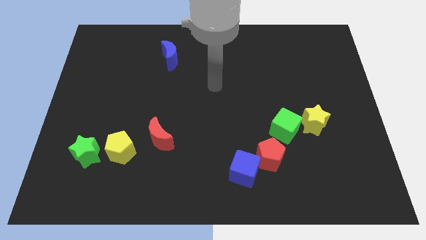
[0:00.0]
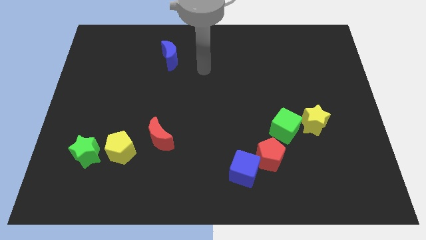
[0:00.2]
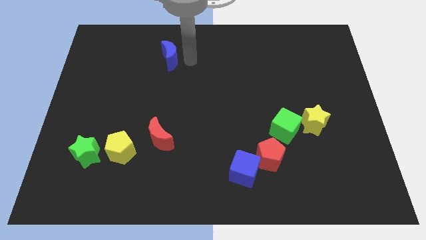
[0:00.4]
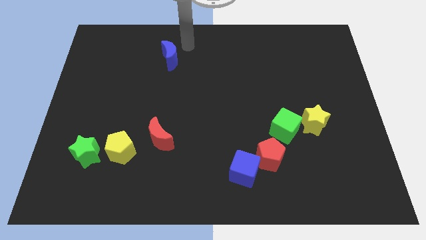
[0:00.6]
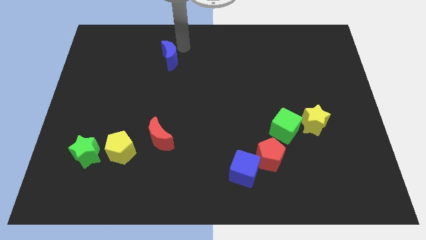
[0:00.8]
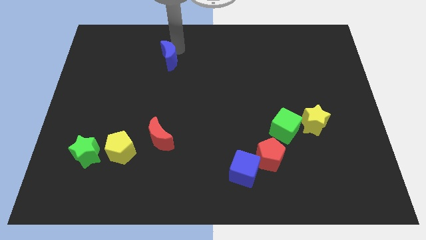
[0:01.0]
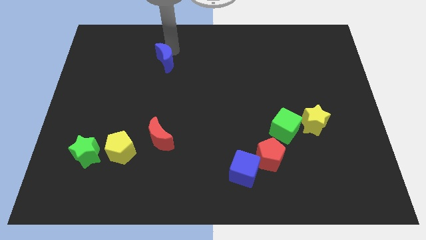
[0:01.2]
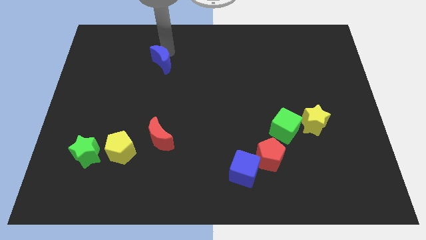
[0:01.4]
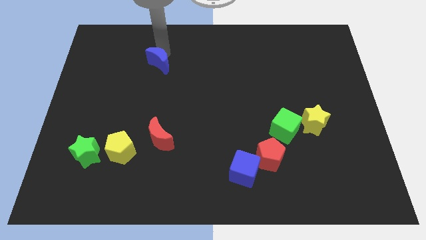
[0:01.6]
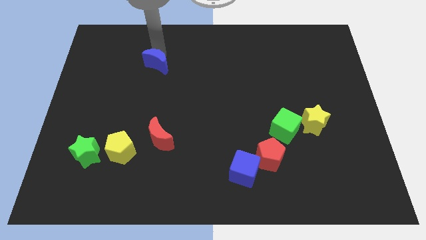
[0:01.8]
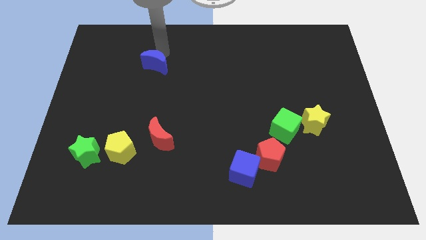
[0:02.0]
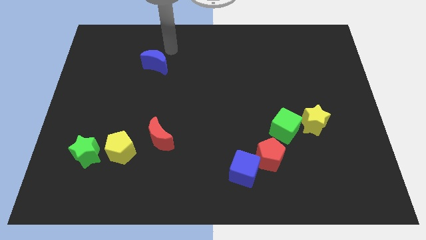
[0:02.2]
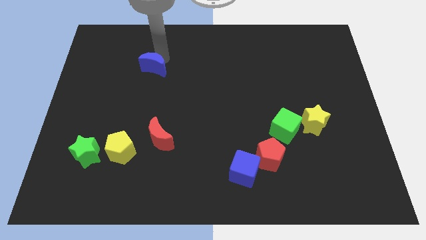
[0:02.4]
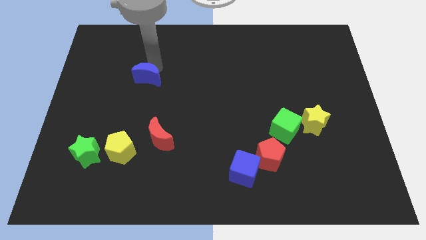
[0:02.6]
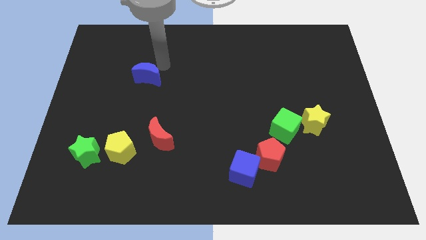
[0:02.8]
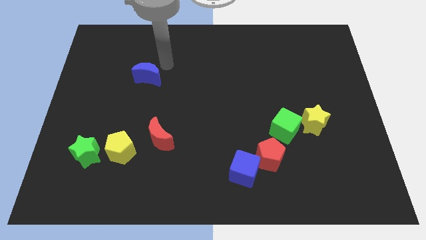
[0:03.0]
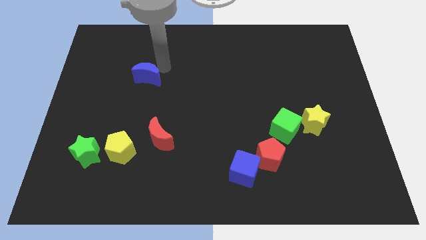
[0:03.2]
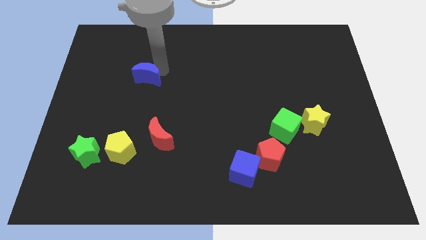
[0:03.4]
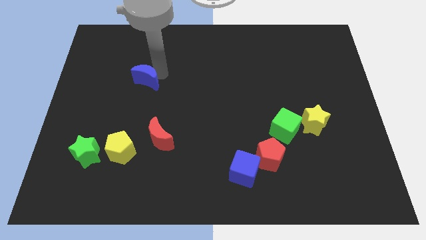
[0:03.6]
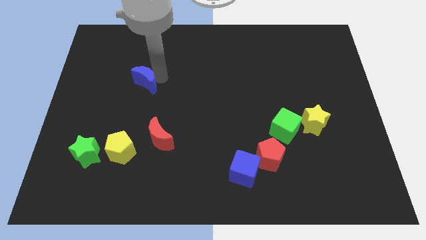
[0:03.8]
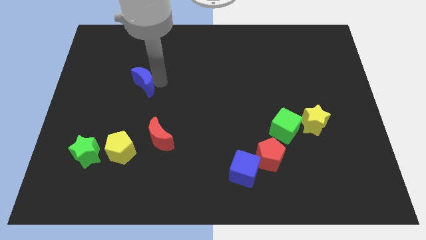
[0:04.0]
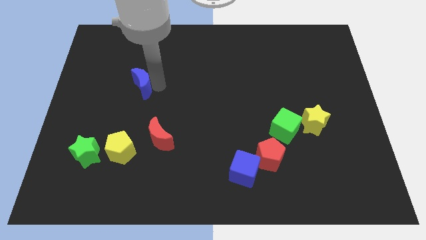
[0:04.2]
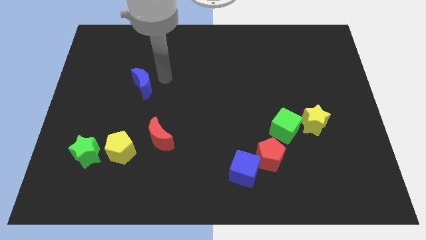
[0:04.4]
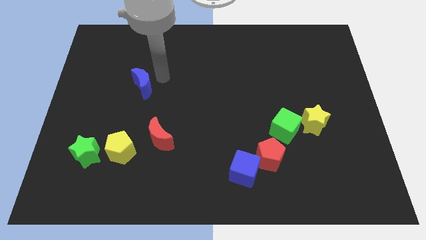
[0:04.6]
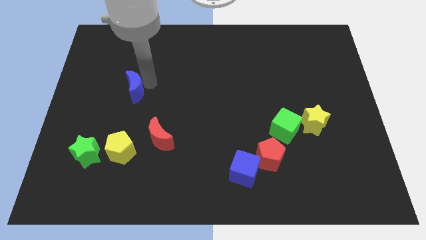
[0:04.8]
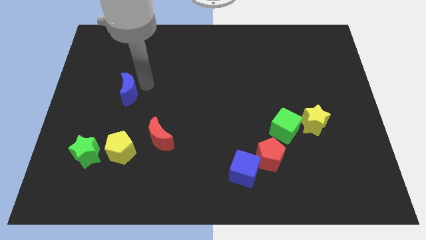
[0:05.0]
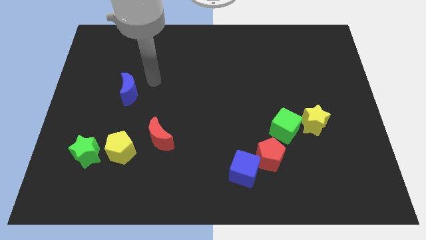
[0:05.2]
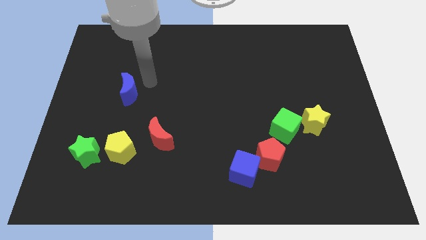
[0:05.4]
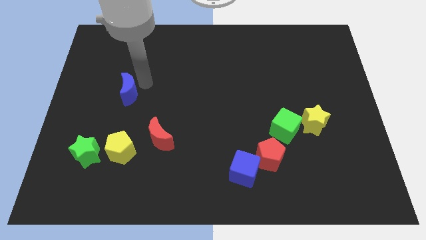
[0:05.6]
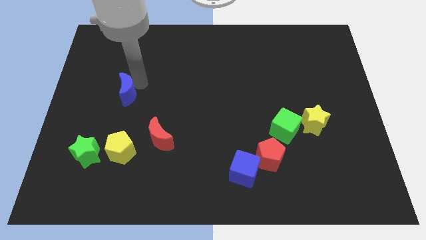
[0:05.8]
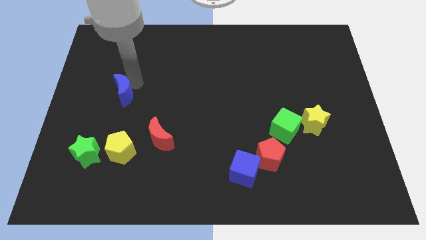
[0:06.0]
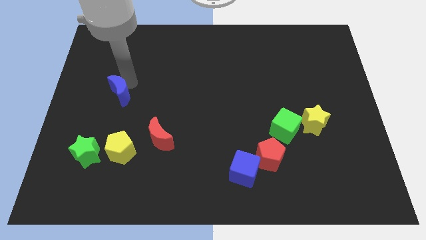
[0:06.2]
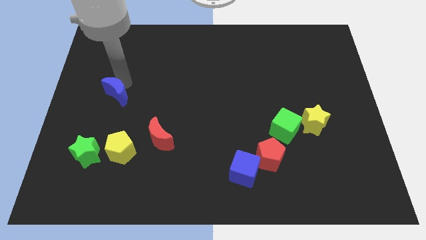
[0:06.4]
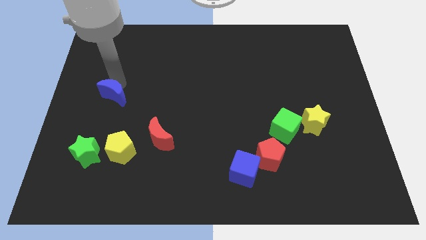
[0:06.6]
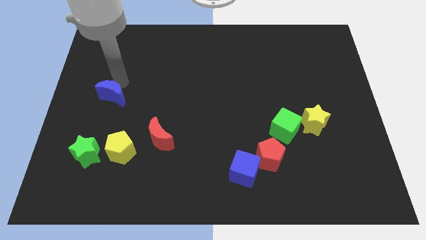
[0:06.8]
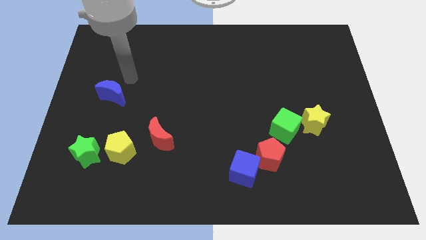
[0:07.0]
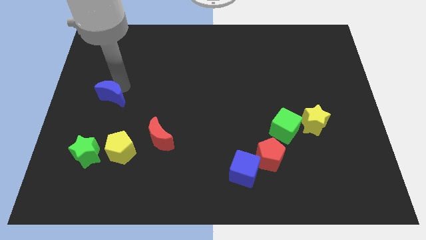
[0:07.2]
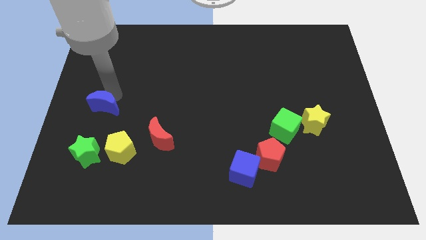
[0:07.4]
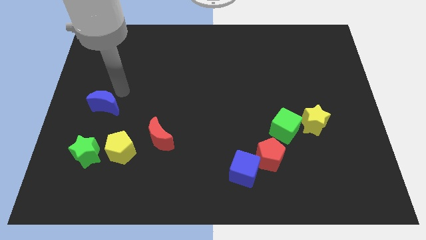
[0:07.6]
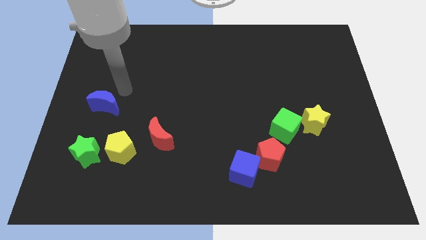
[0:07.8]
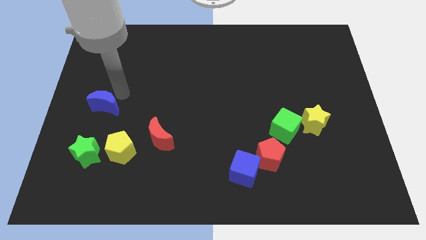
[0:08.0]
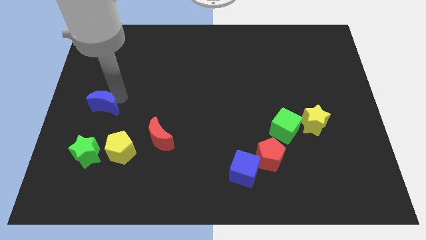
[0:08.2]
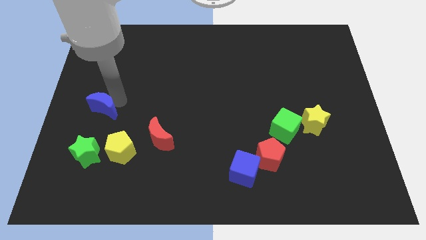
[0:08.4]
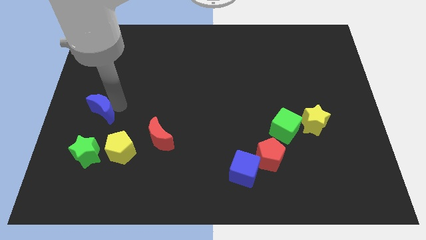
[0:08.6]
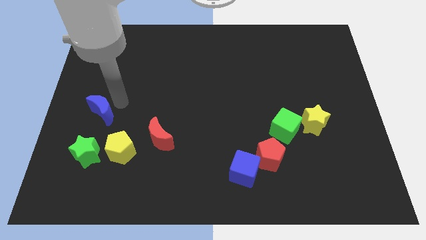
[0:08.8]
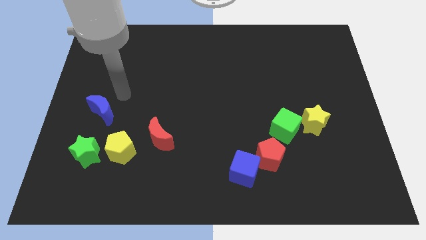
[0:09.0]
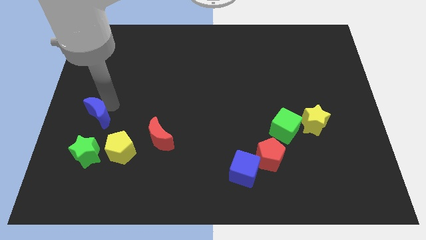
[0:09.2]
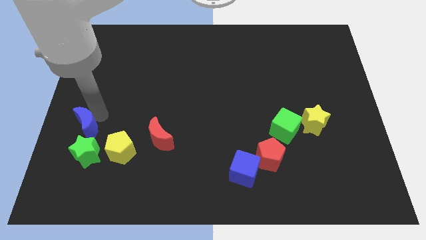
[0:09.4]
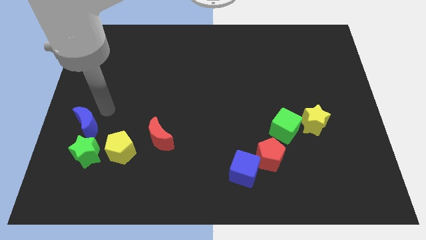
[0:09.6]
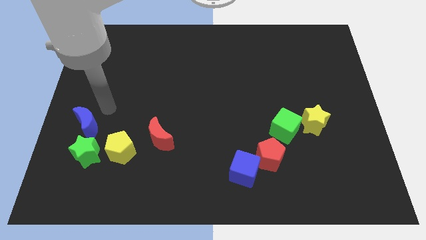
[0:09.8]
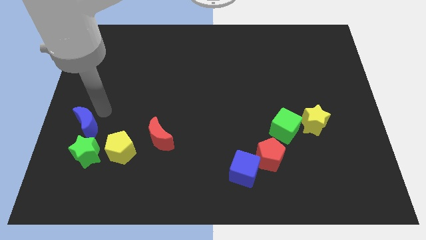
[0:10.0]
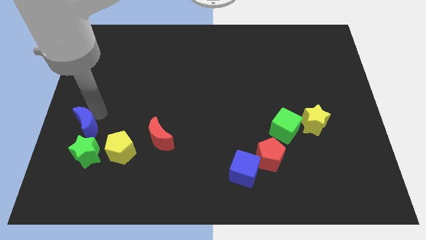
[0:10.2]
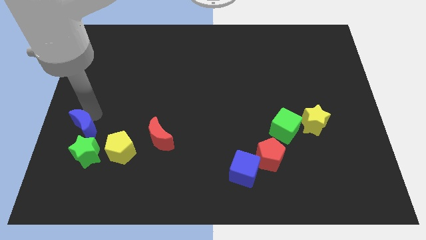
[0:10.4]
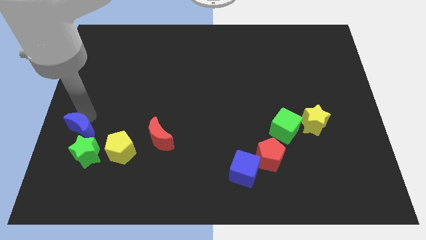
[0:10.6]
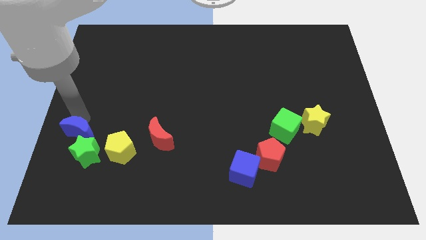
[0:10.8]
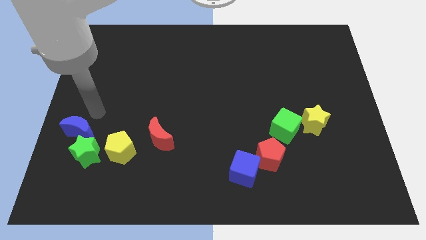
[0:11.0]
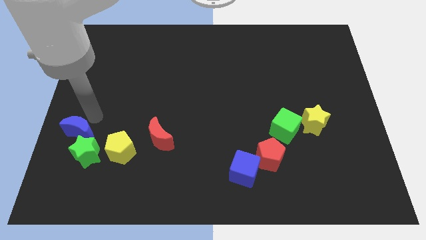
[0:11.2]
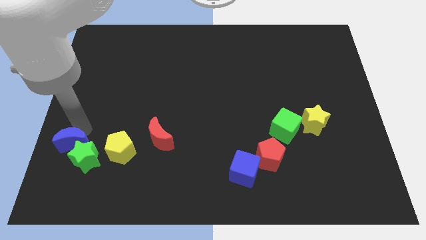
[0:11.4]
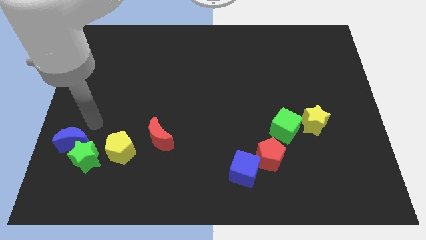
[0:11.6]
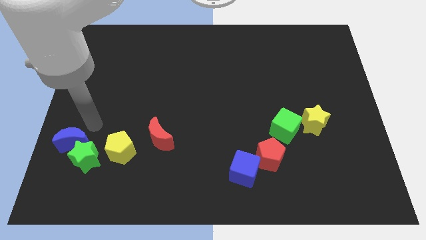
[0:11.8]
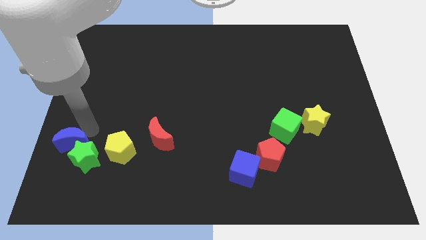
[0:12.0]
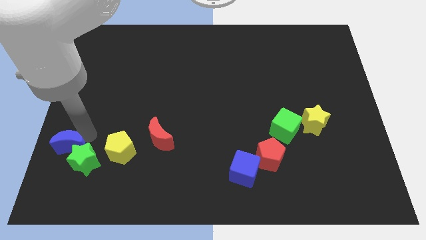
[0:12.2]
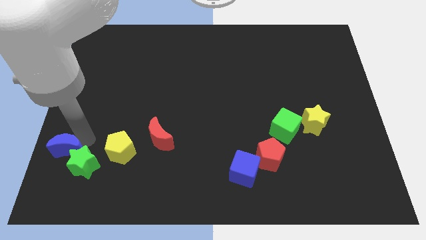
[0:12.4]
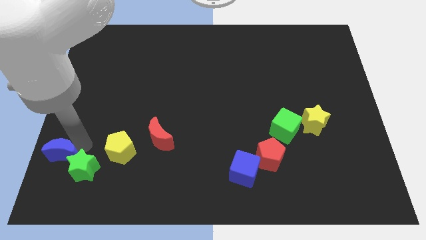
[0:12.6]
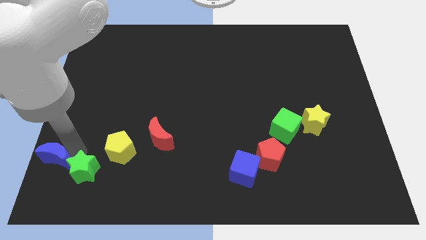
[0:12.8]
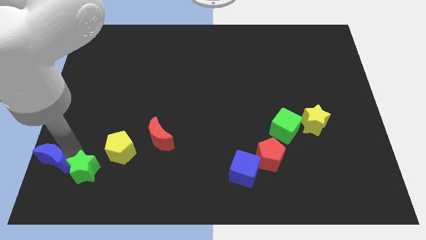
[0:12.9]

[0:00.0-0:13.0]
move the blue moon to the lower left corner
